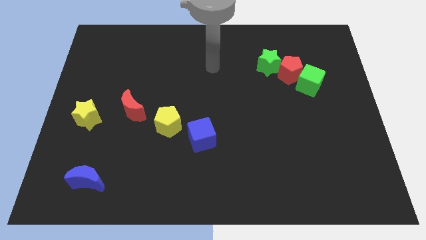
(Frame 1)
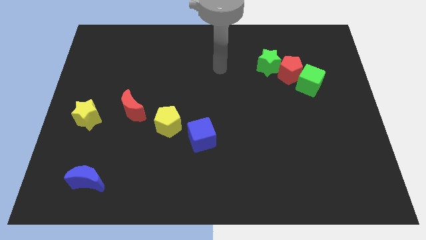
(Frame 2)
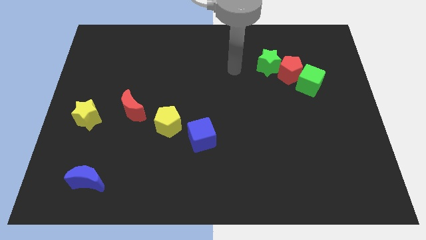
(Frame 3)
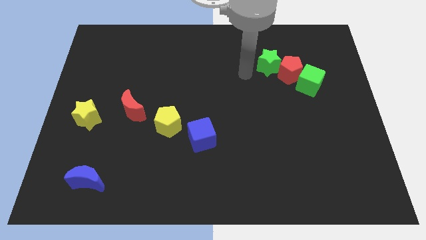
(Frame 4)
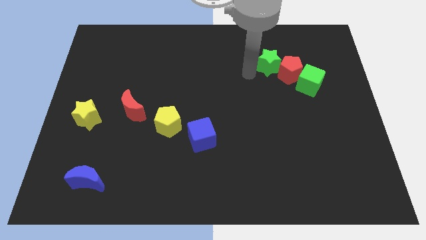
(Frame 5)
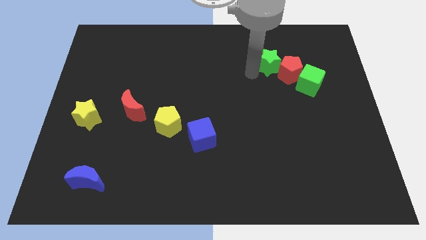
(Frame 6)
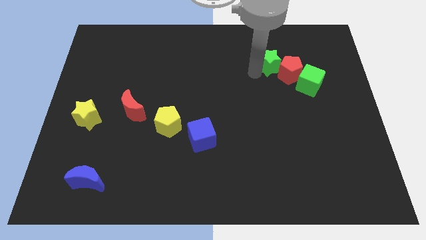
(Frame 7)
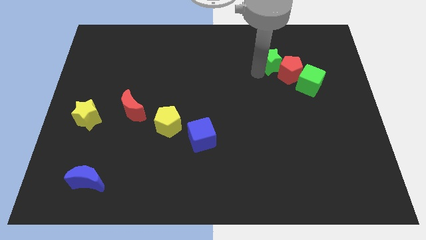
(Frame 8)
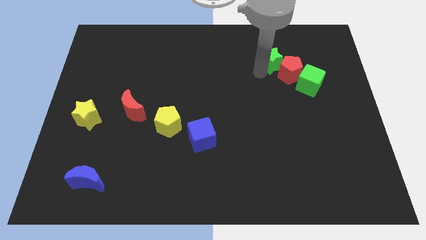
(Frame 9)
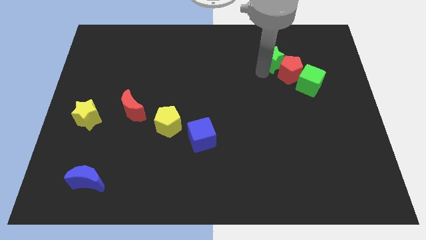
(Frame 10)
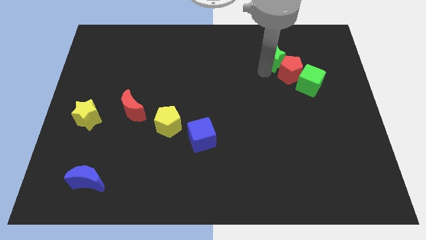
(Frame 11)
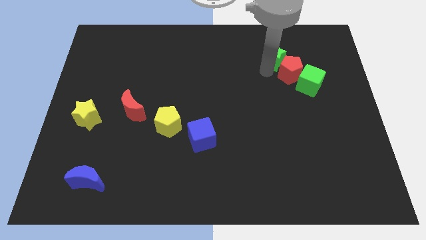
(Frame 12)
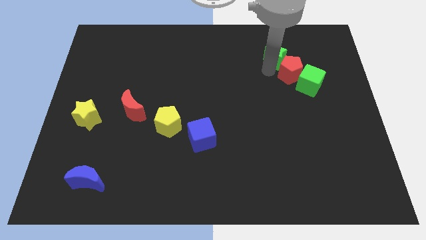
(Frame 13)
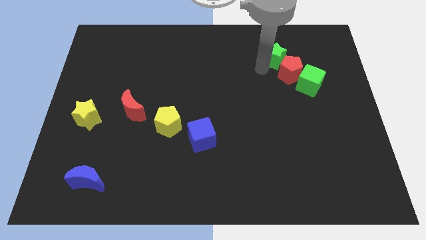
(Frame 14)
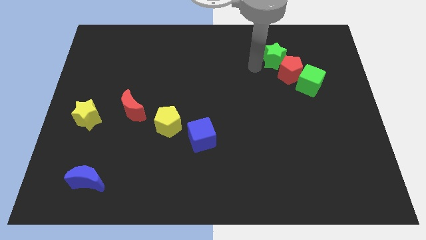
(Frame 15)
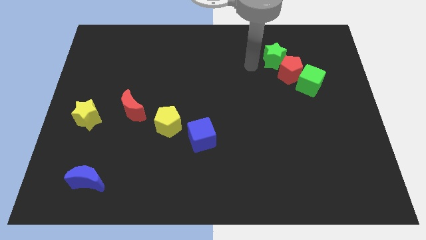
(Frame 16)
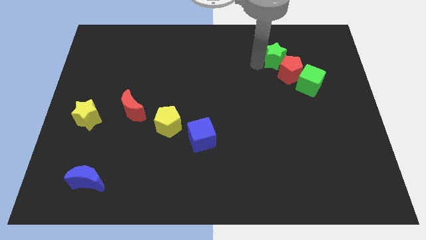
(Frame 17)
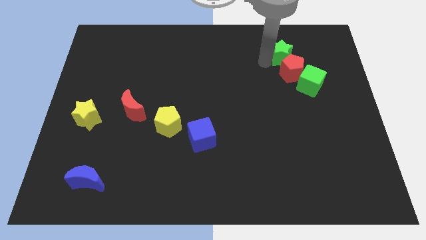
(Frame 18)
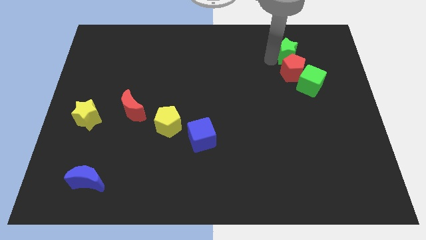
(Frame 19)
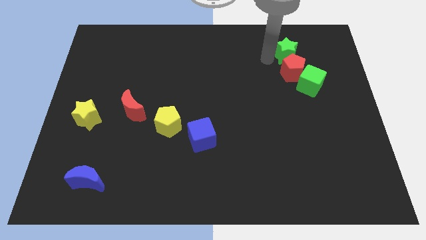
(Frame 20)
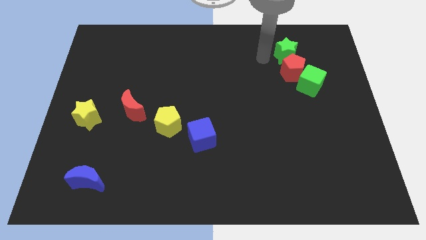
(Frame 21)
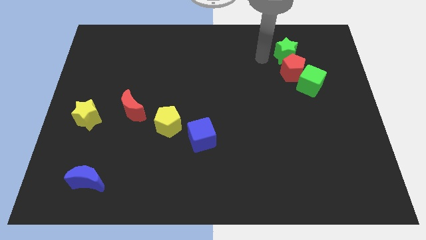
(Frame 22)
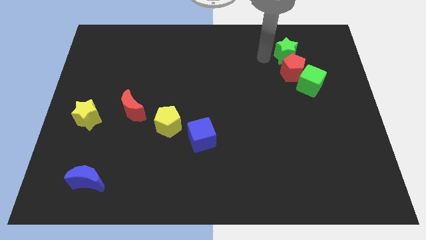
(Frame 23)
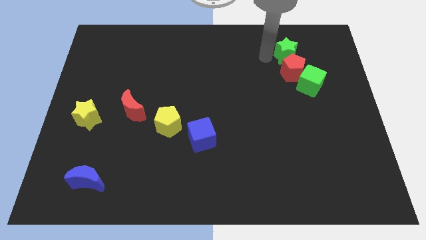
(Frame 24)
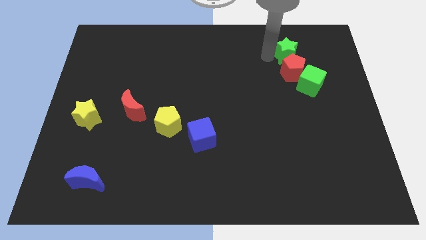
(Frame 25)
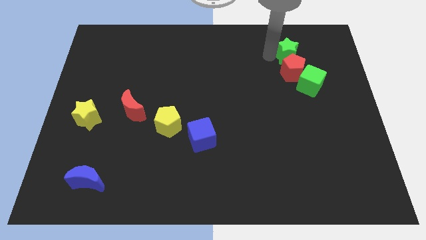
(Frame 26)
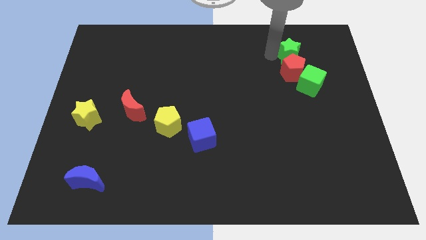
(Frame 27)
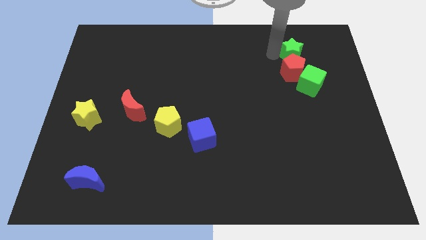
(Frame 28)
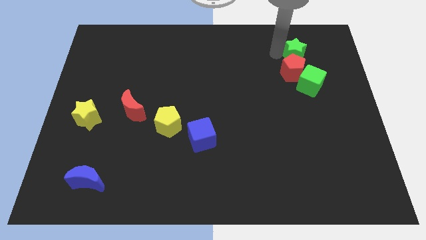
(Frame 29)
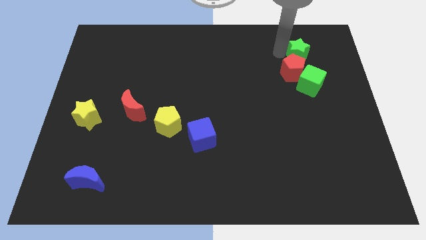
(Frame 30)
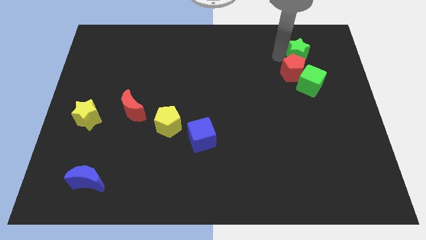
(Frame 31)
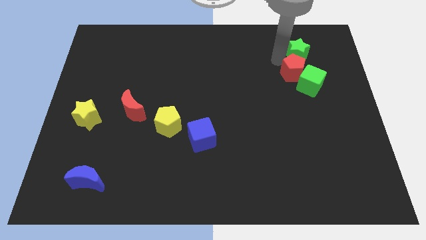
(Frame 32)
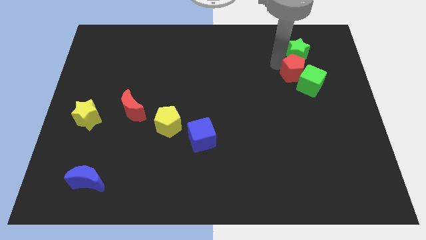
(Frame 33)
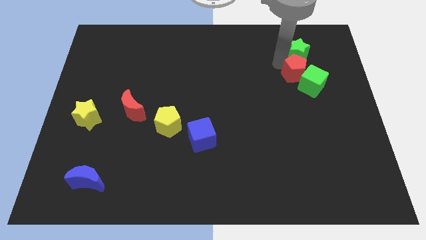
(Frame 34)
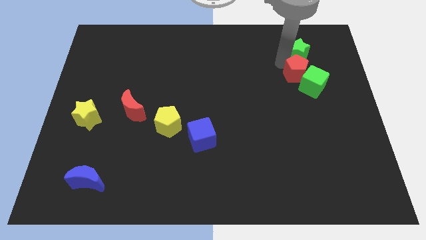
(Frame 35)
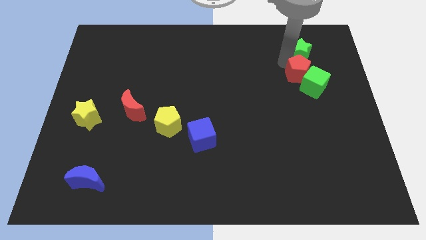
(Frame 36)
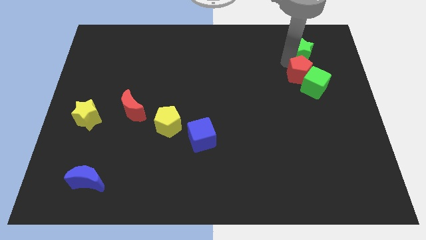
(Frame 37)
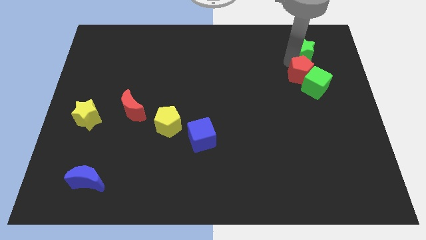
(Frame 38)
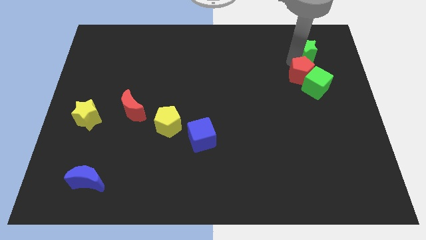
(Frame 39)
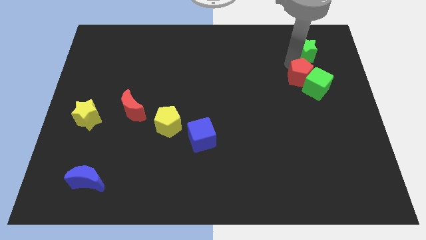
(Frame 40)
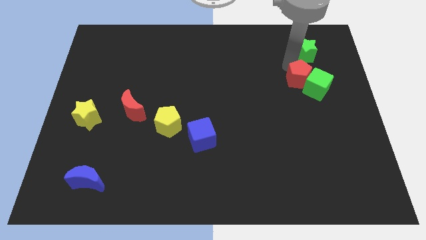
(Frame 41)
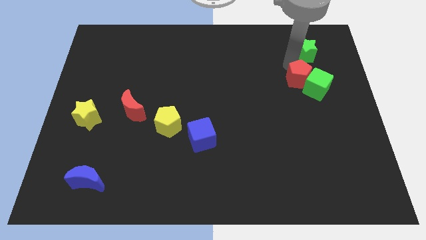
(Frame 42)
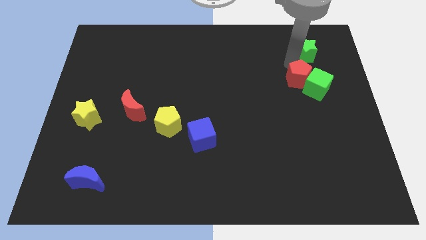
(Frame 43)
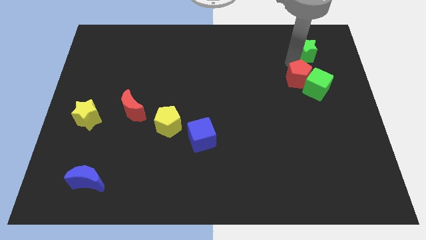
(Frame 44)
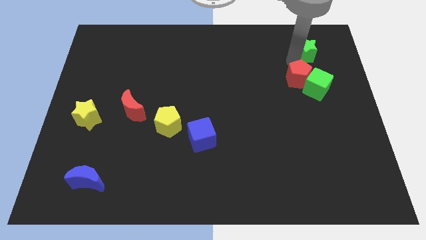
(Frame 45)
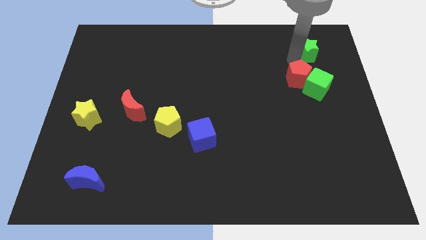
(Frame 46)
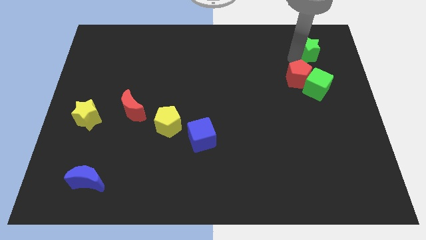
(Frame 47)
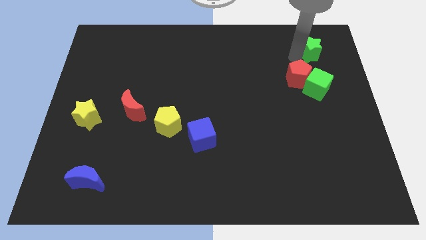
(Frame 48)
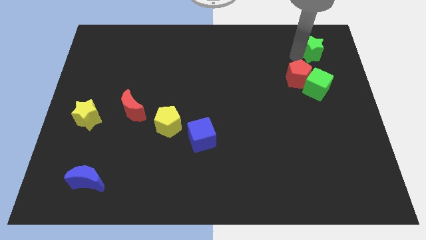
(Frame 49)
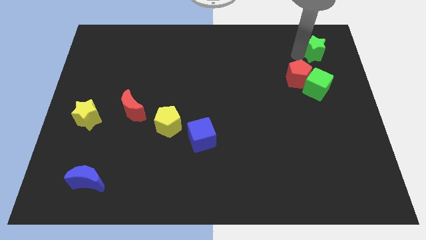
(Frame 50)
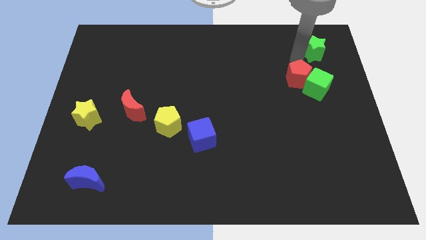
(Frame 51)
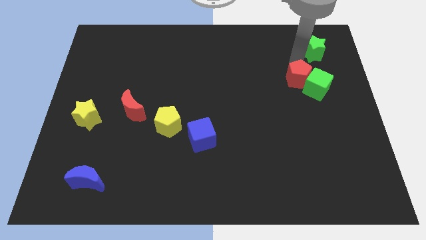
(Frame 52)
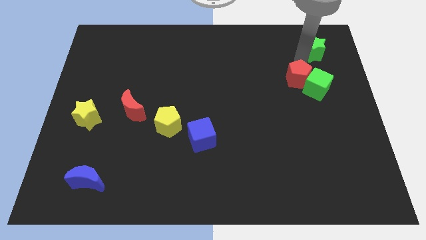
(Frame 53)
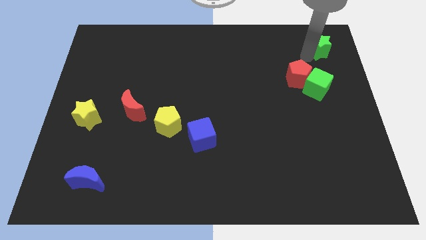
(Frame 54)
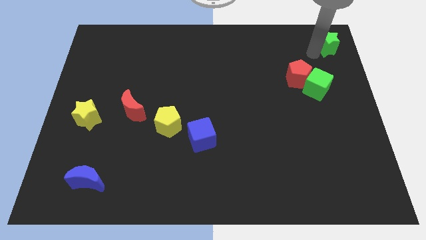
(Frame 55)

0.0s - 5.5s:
push the green star to the top right

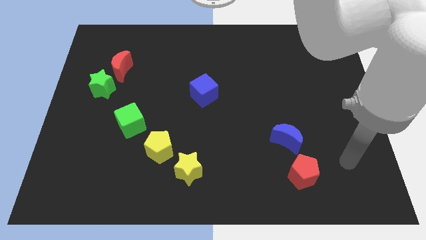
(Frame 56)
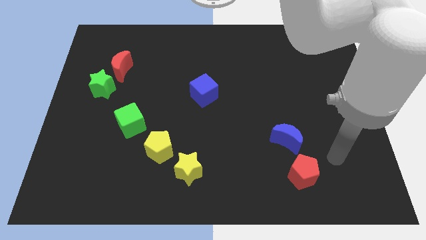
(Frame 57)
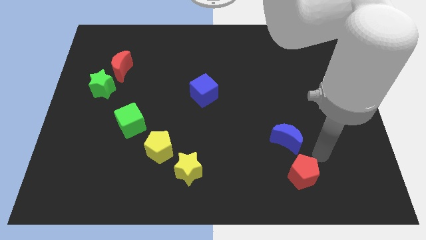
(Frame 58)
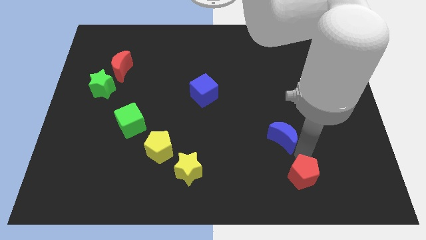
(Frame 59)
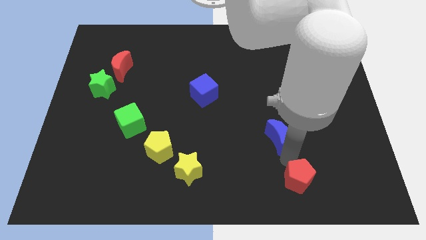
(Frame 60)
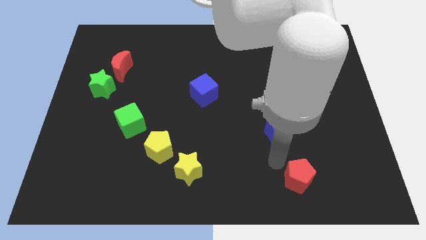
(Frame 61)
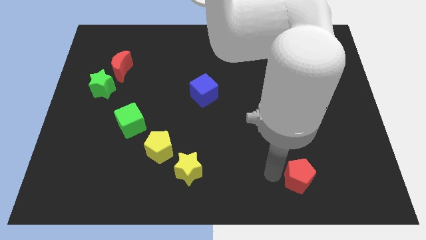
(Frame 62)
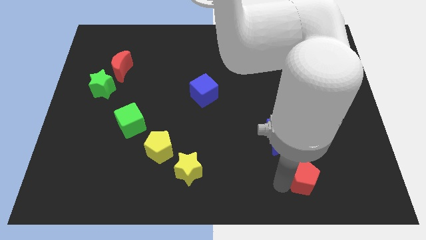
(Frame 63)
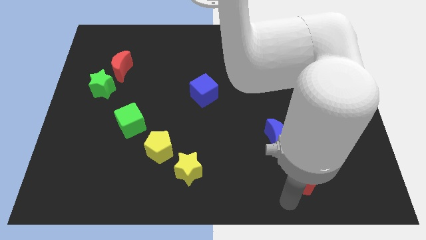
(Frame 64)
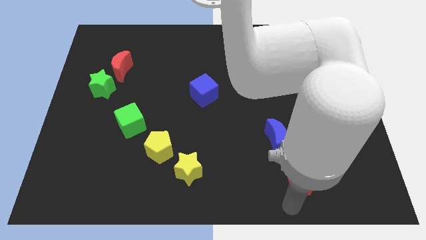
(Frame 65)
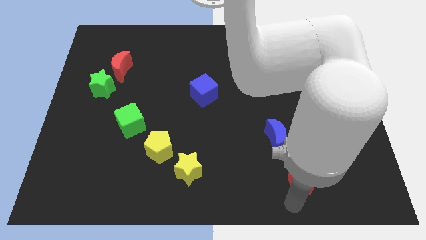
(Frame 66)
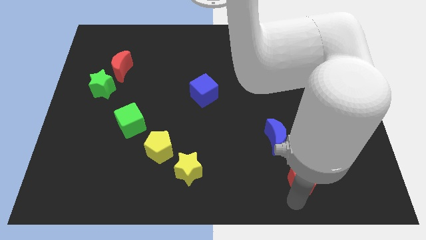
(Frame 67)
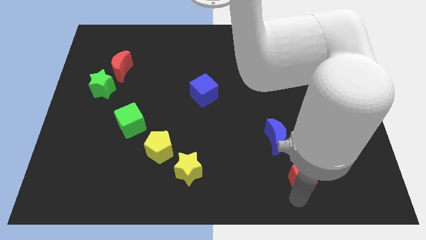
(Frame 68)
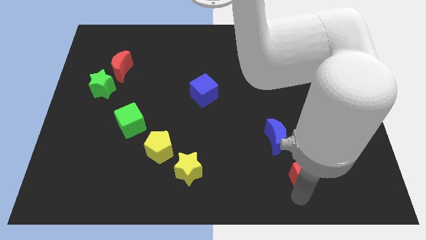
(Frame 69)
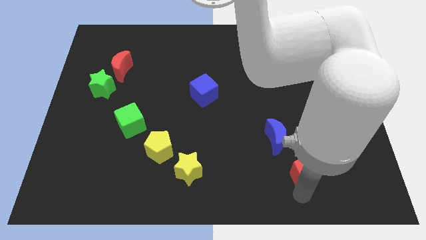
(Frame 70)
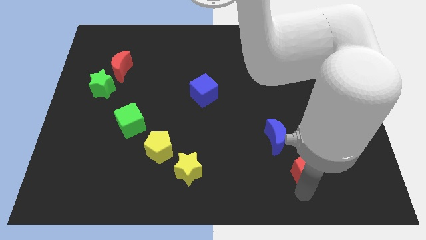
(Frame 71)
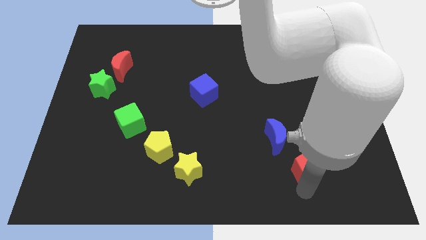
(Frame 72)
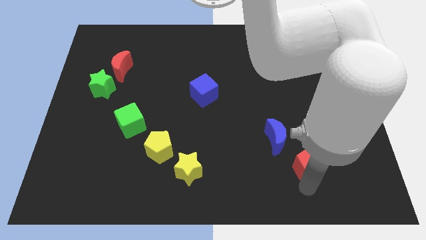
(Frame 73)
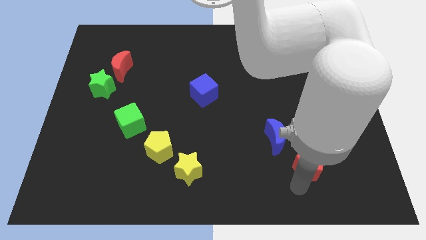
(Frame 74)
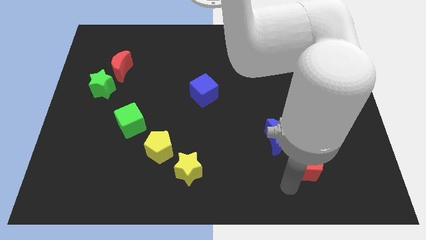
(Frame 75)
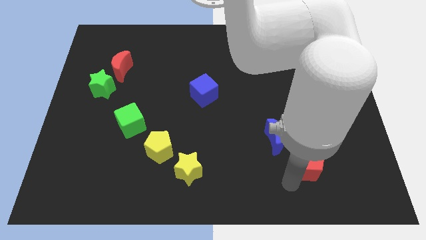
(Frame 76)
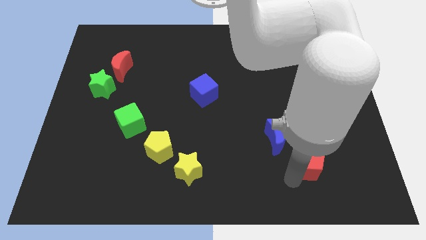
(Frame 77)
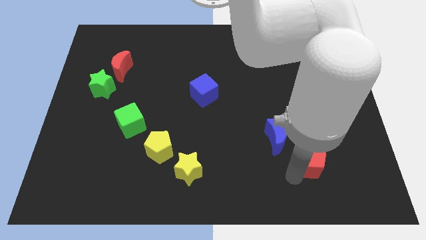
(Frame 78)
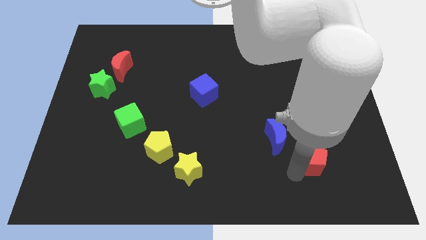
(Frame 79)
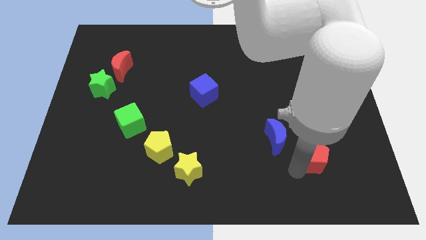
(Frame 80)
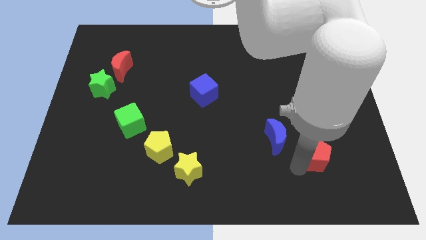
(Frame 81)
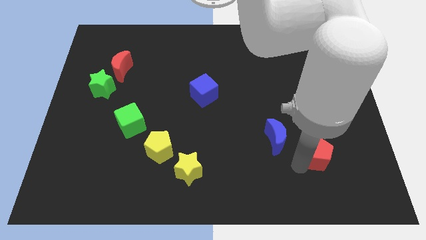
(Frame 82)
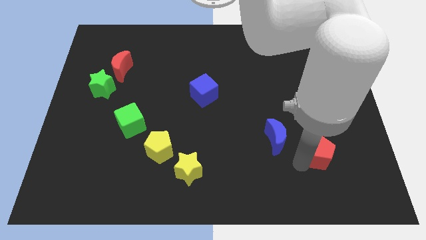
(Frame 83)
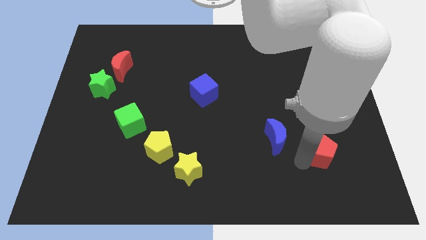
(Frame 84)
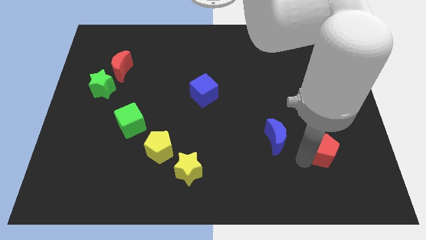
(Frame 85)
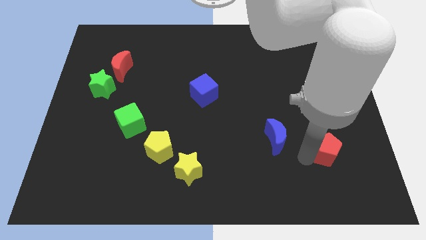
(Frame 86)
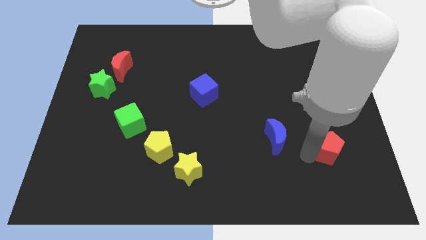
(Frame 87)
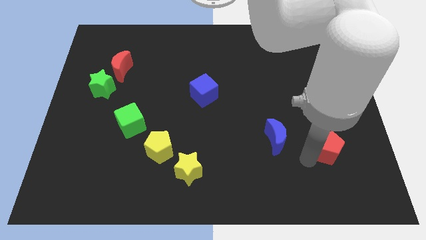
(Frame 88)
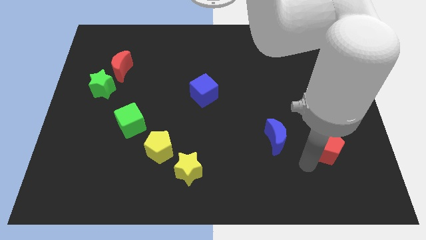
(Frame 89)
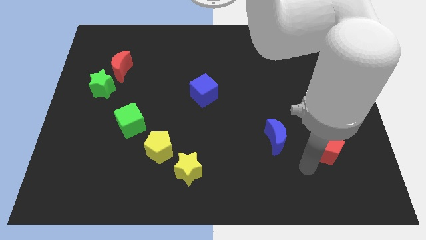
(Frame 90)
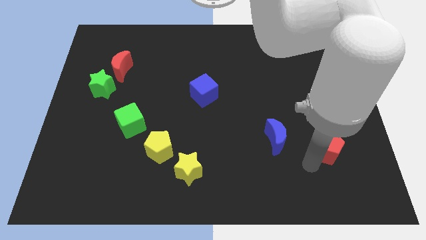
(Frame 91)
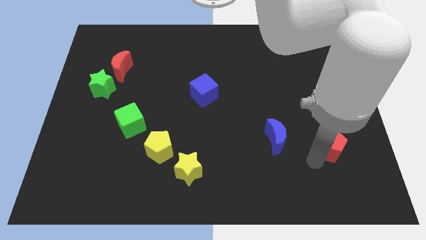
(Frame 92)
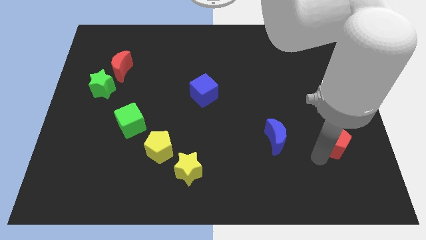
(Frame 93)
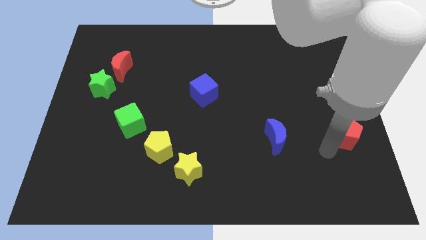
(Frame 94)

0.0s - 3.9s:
push the red pentagon to the right side
